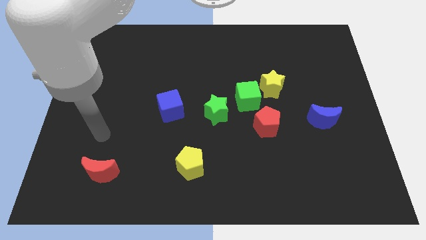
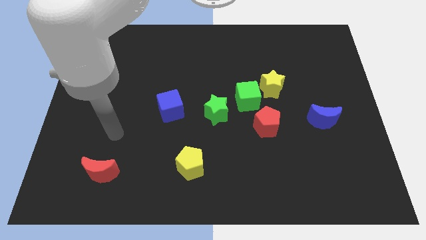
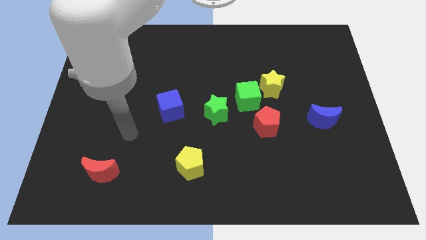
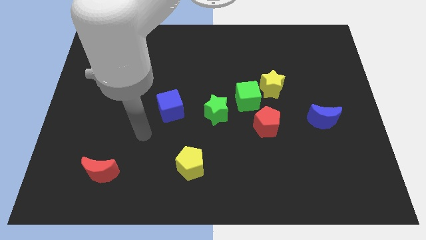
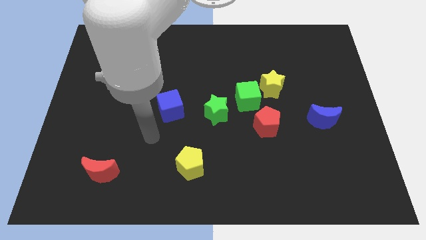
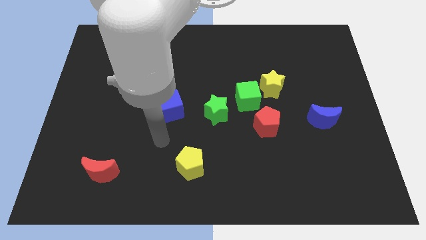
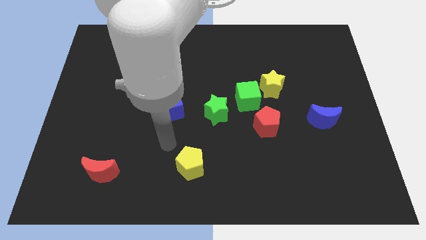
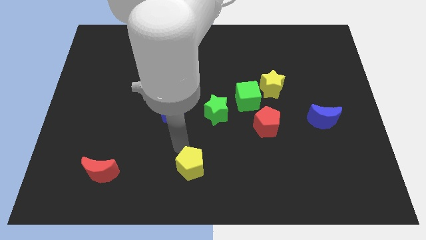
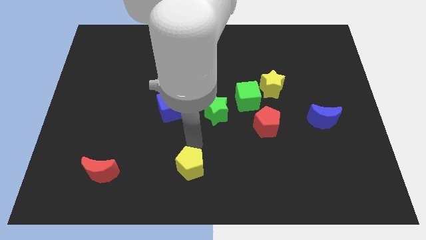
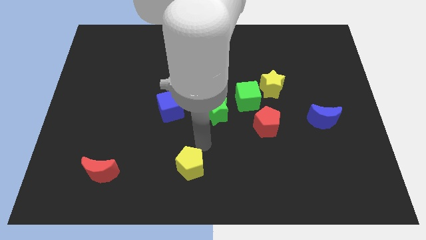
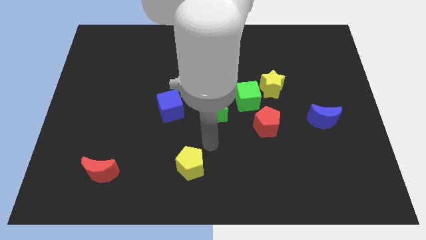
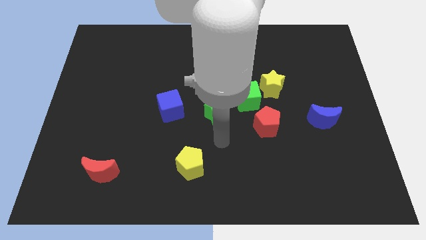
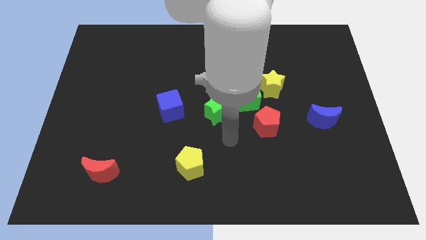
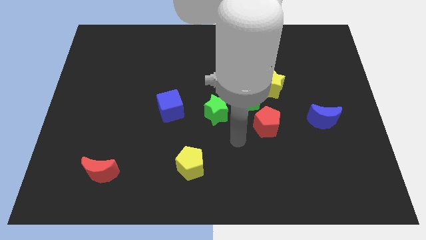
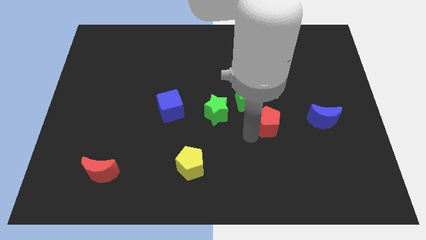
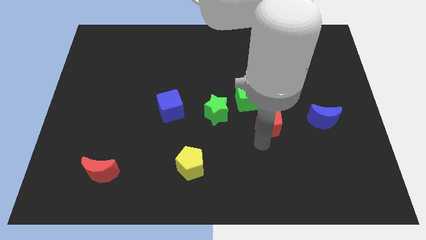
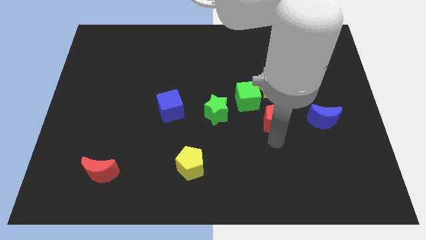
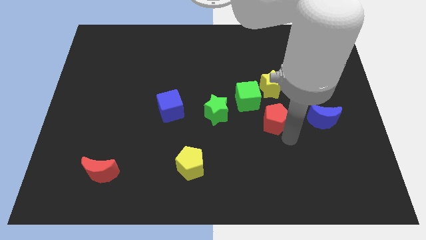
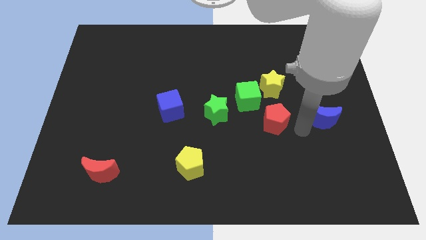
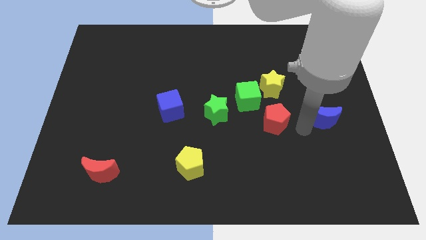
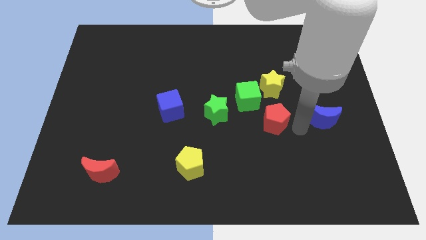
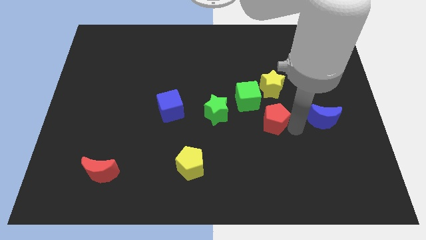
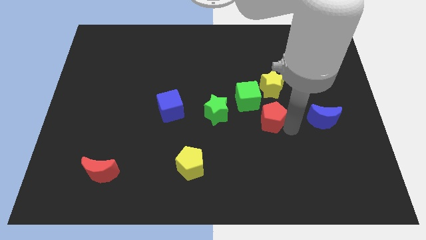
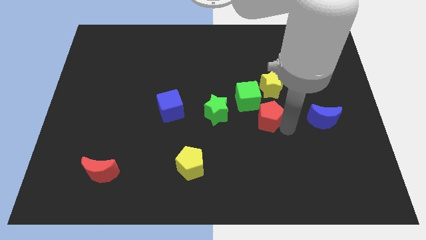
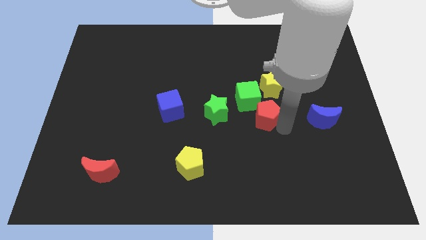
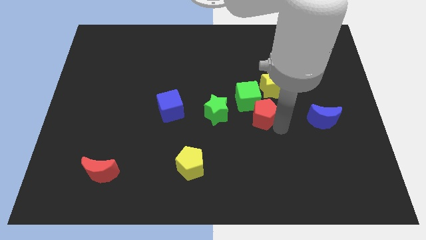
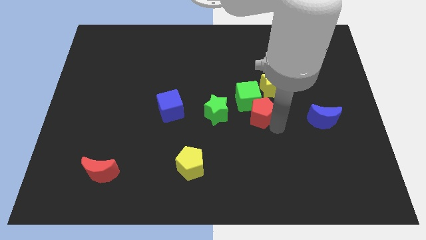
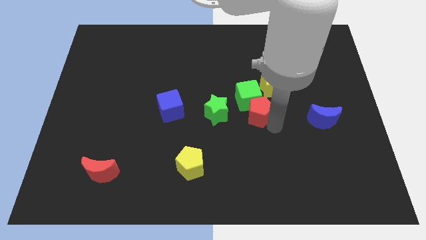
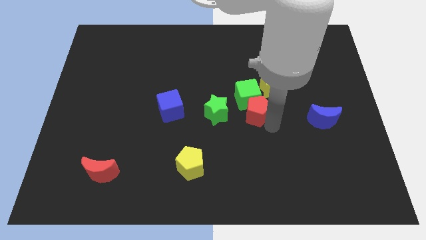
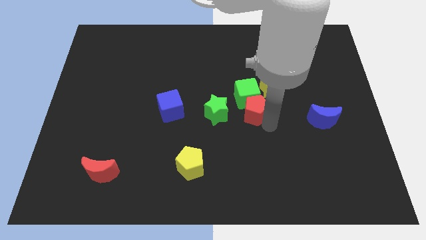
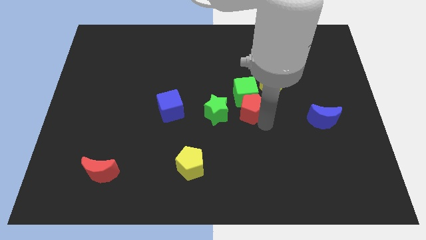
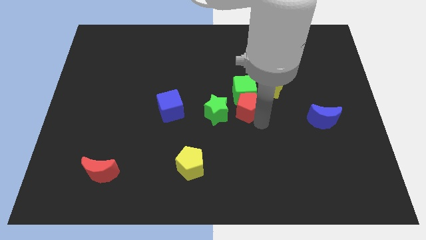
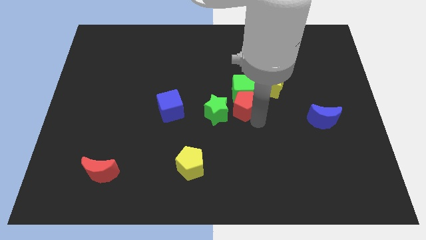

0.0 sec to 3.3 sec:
slightly push the red pentagon upwards and then to the left

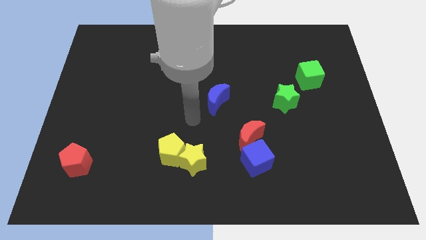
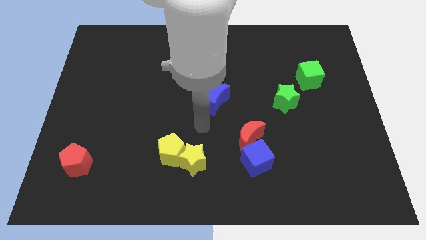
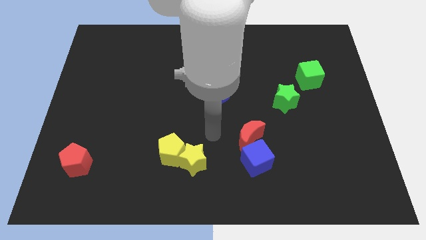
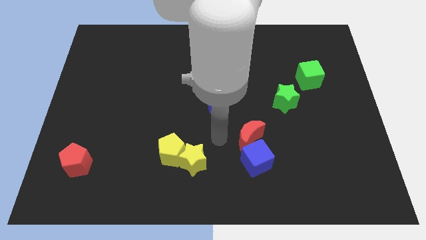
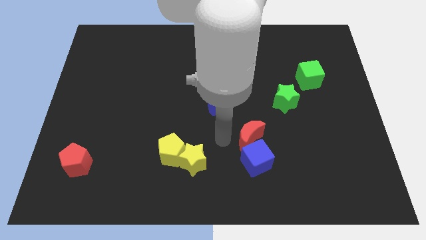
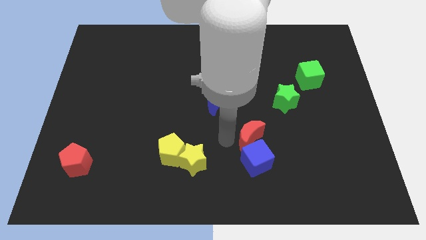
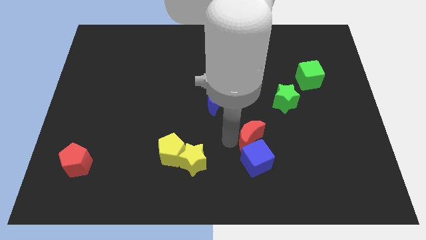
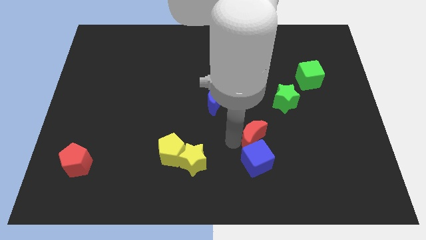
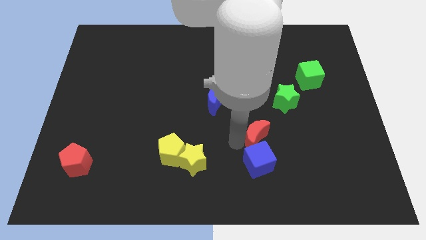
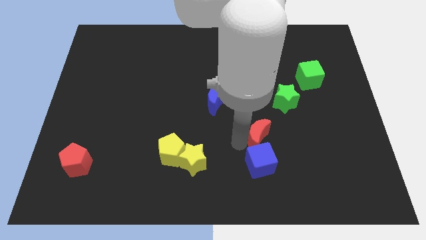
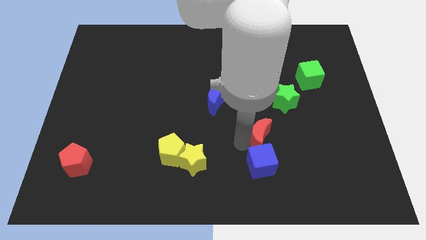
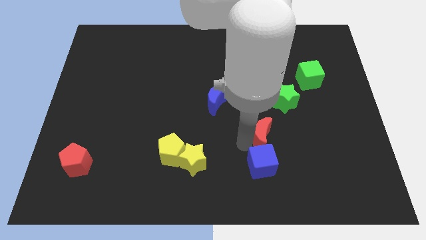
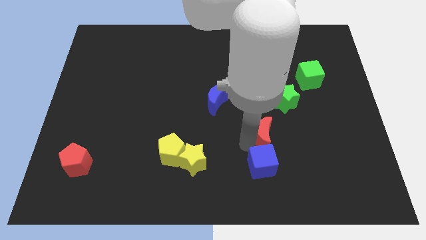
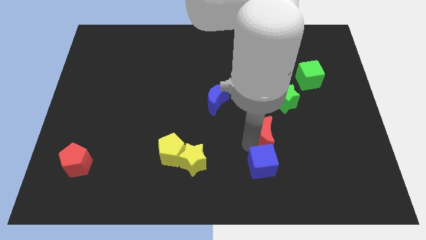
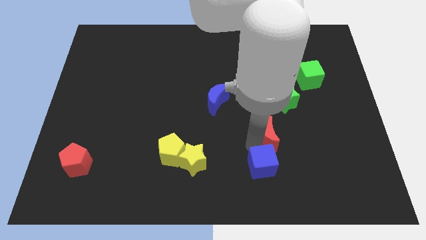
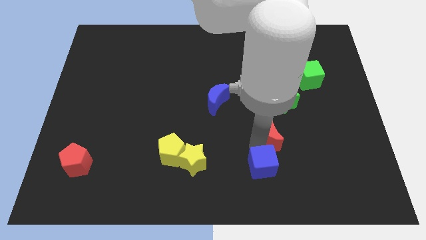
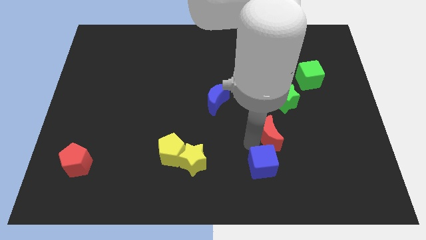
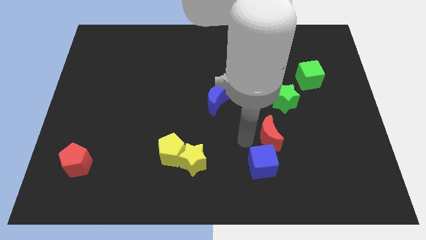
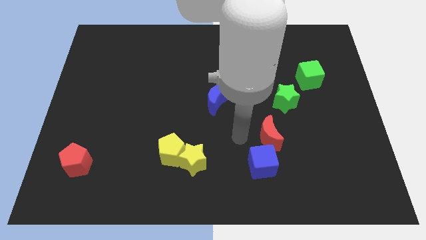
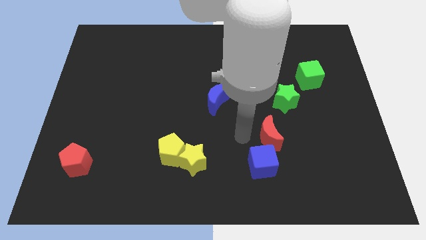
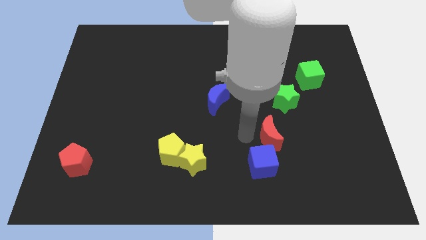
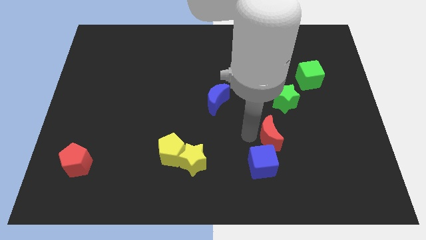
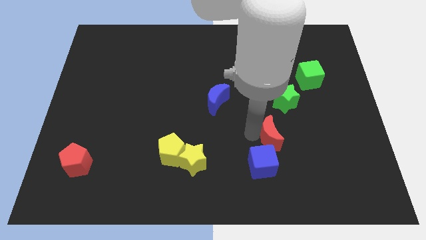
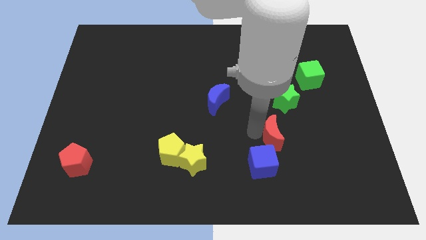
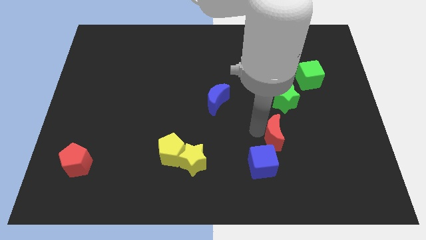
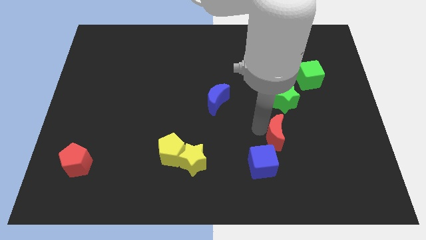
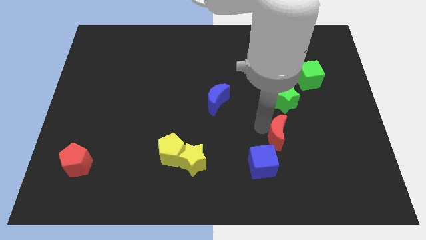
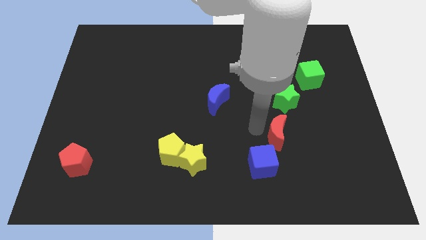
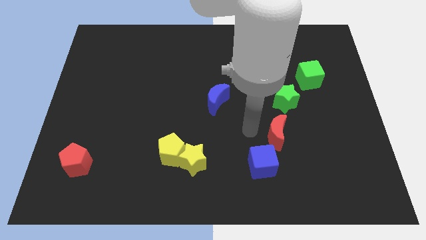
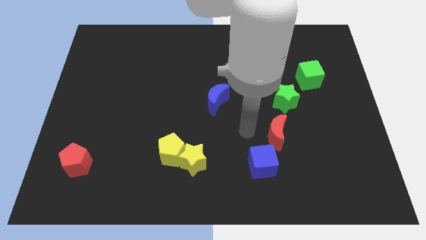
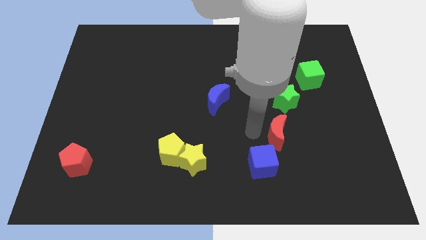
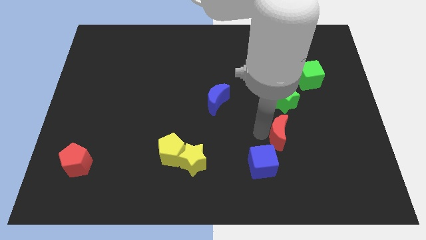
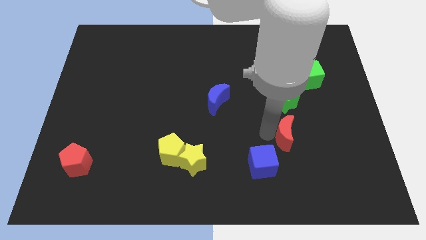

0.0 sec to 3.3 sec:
slightly push the red moon right

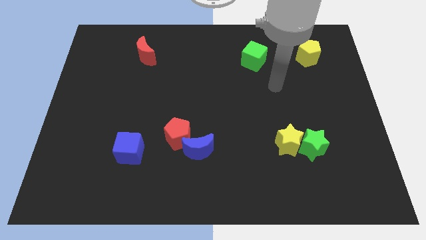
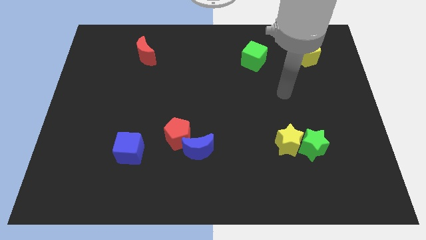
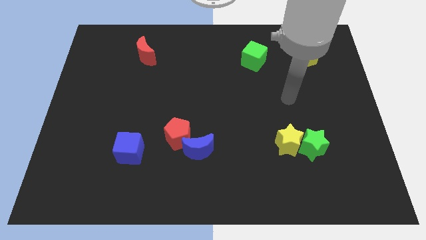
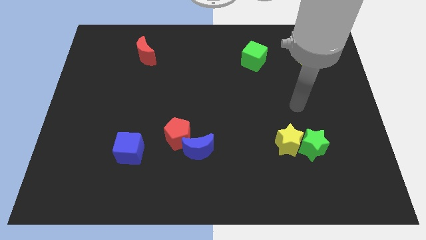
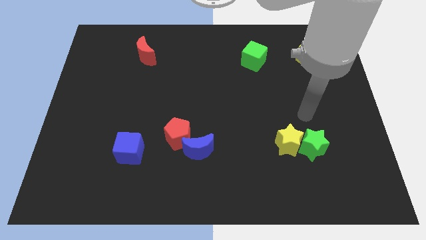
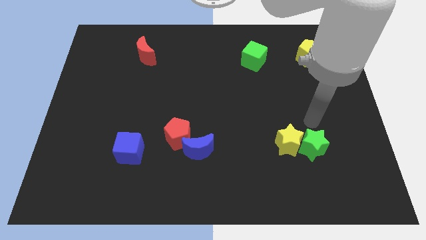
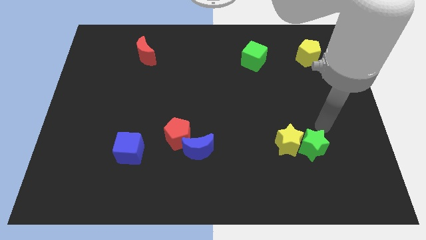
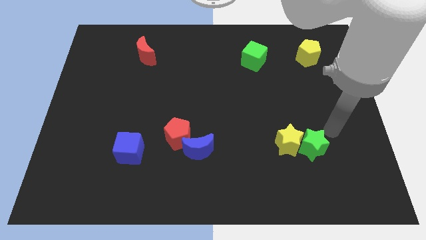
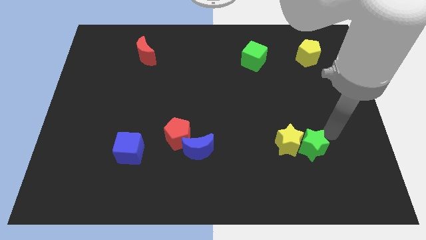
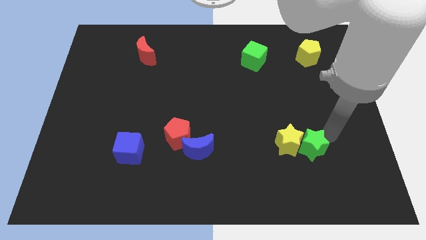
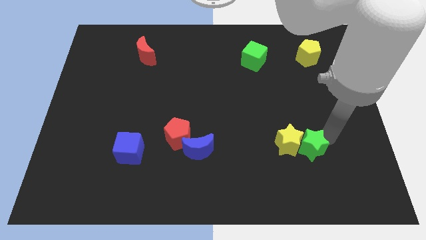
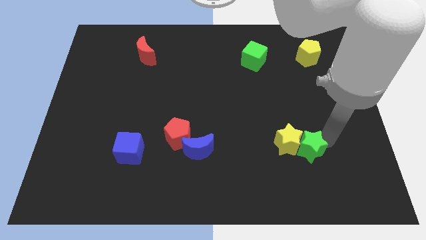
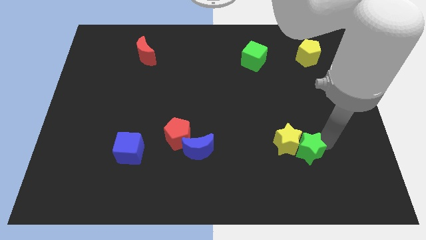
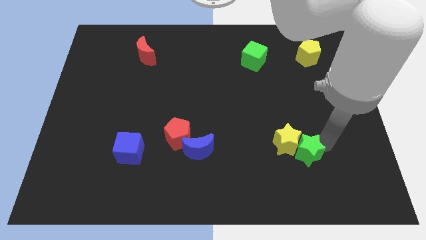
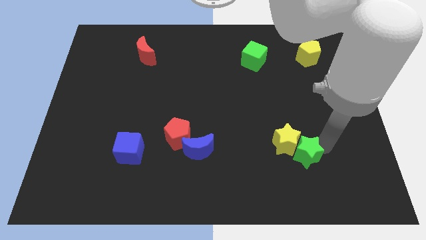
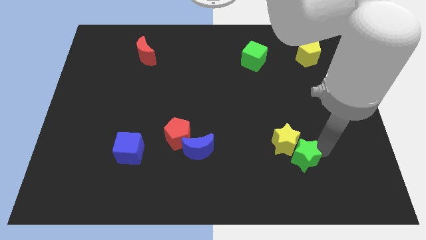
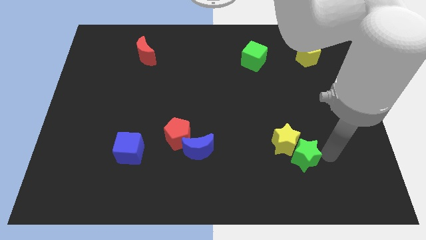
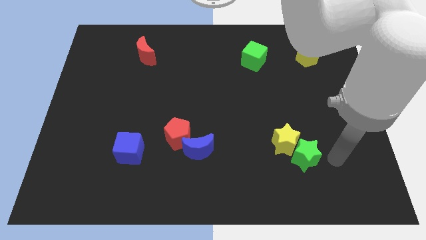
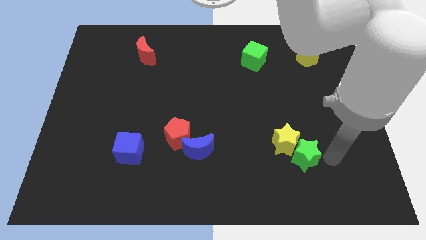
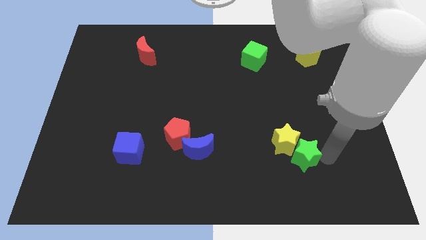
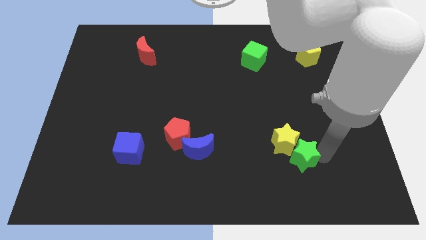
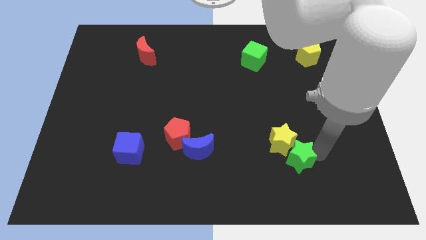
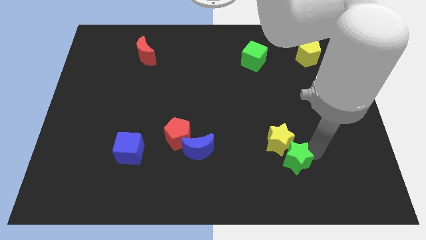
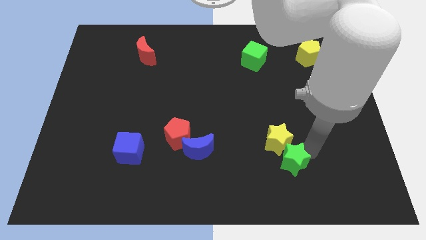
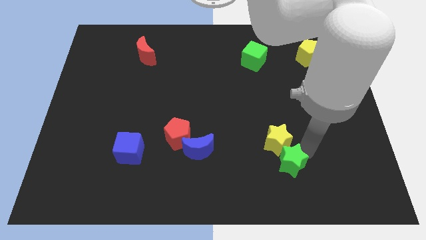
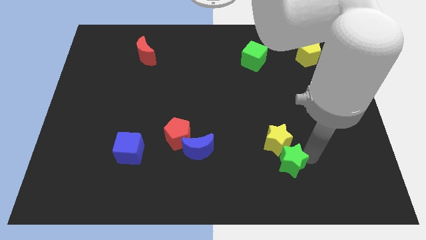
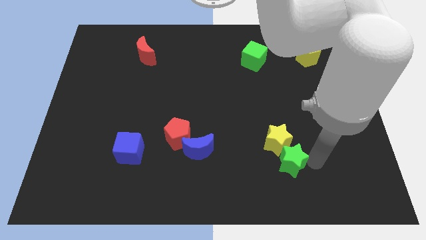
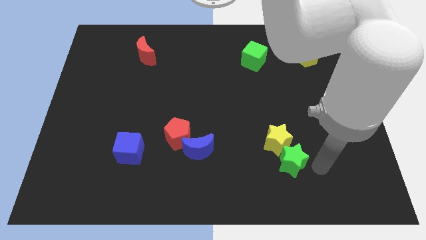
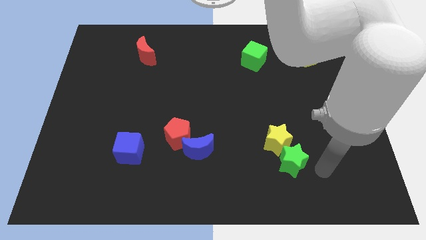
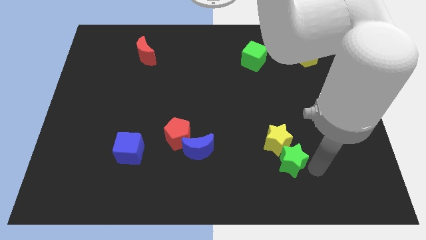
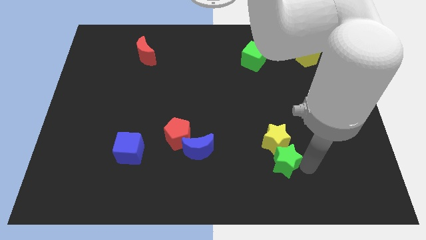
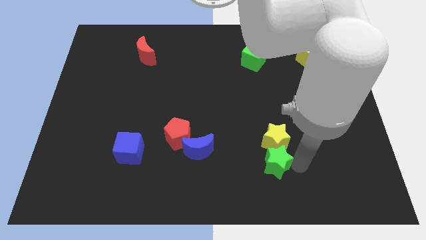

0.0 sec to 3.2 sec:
push the green star a little bit to the left
